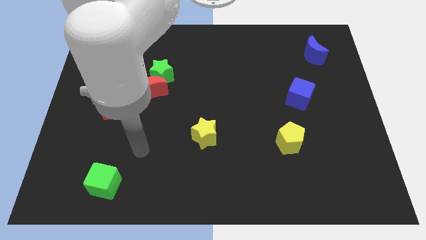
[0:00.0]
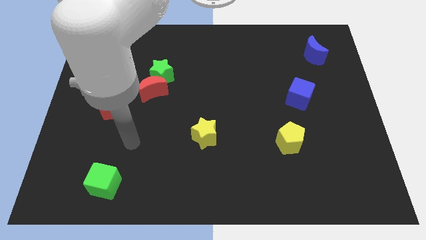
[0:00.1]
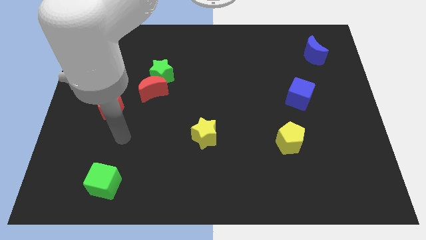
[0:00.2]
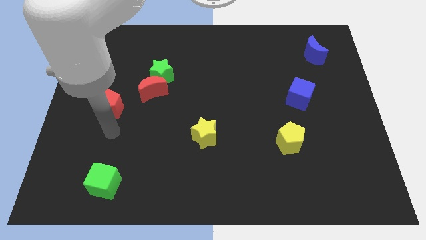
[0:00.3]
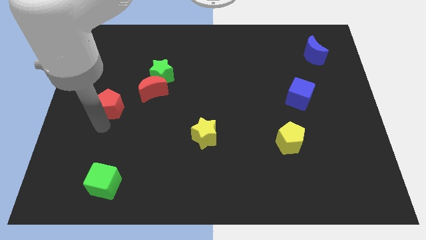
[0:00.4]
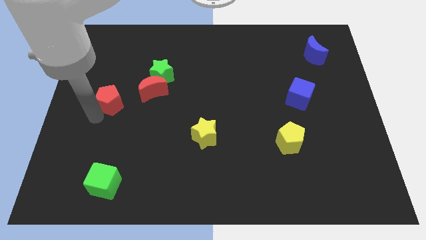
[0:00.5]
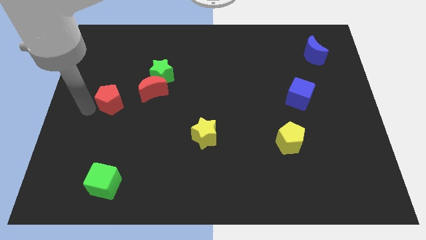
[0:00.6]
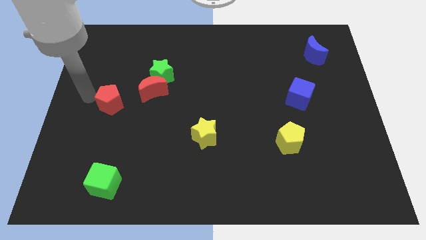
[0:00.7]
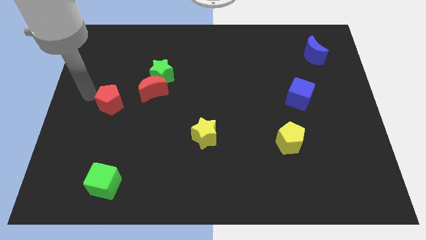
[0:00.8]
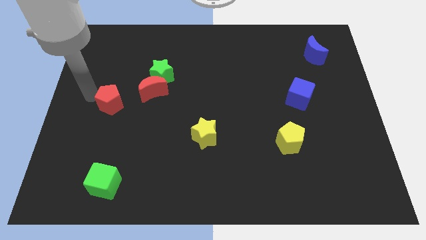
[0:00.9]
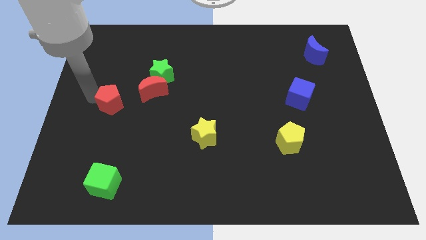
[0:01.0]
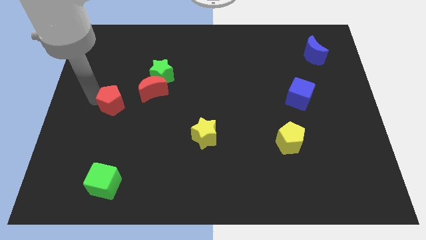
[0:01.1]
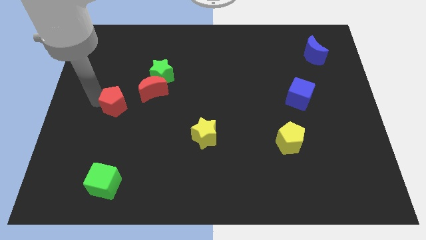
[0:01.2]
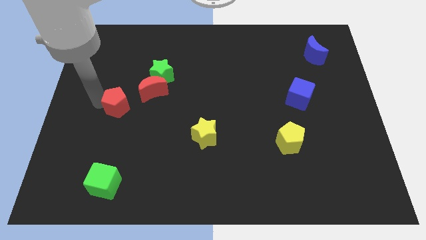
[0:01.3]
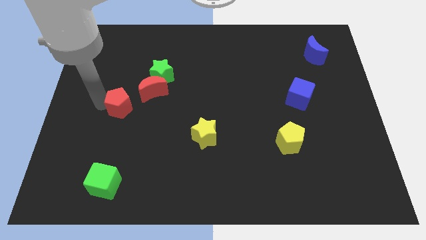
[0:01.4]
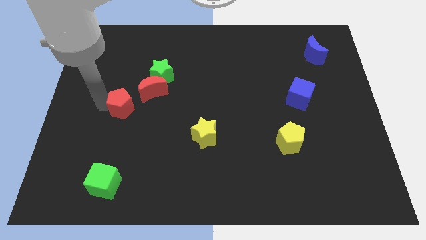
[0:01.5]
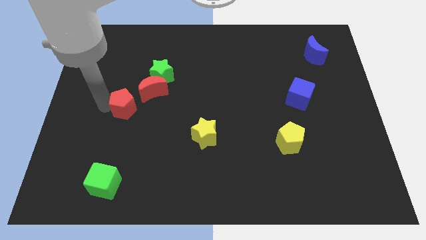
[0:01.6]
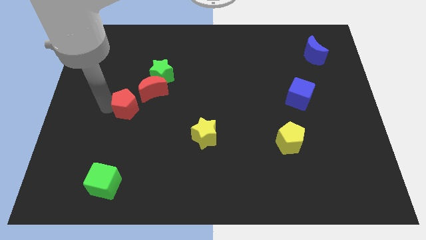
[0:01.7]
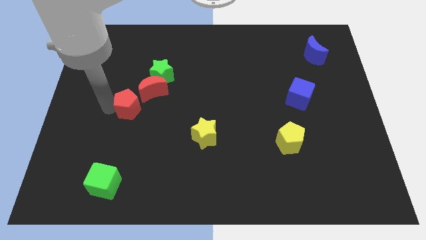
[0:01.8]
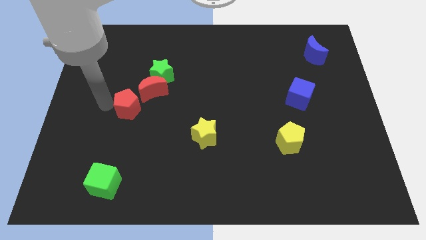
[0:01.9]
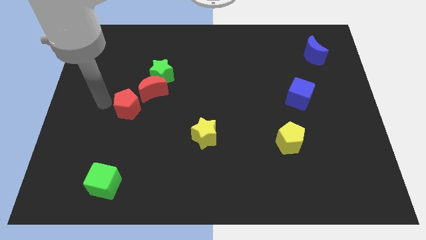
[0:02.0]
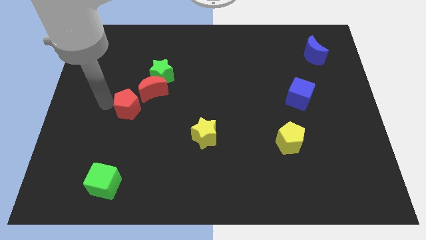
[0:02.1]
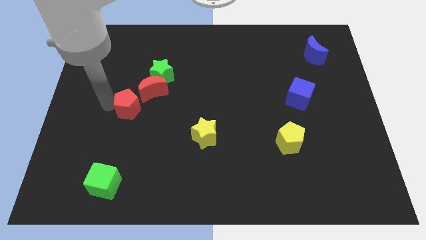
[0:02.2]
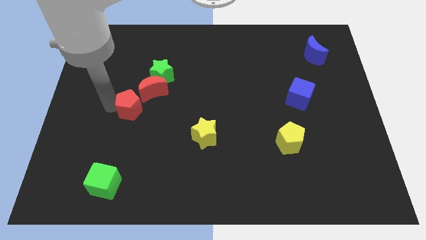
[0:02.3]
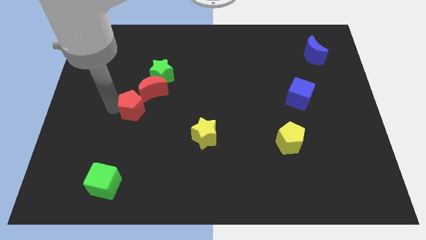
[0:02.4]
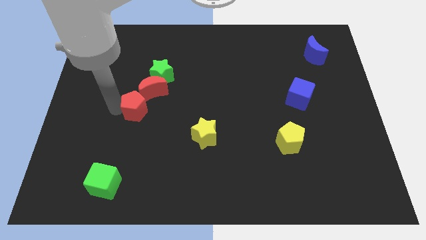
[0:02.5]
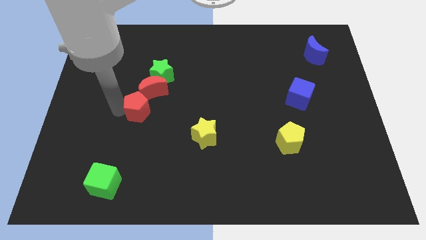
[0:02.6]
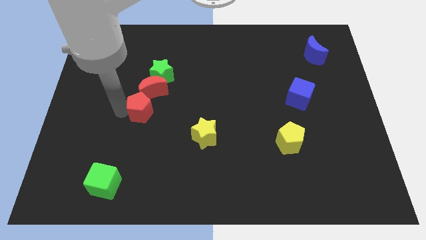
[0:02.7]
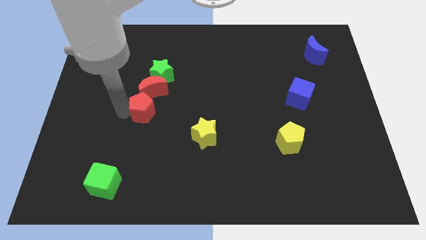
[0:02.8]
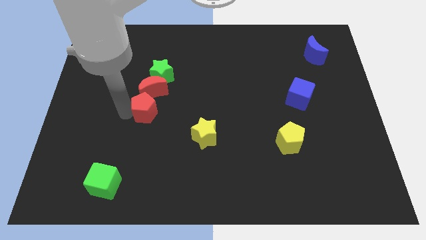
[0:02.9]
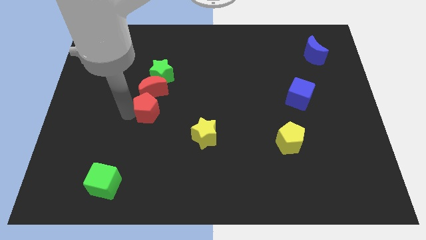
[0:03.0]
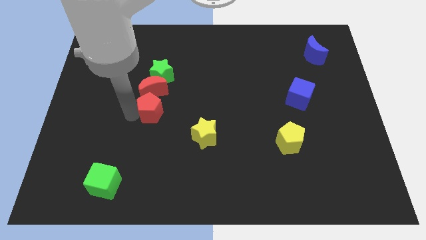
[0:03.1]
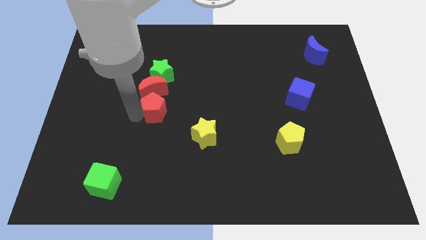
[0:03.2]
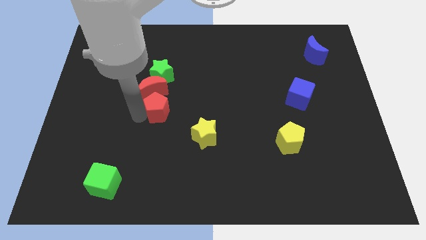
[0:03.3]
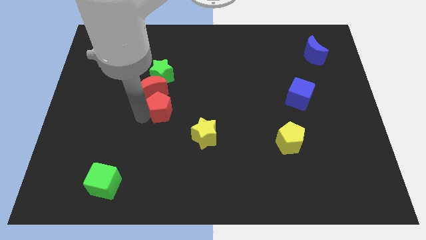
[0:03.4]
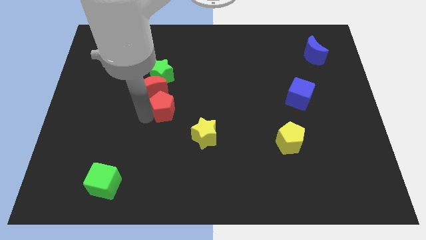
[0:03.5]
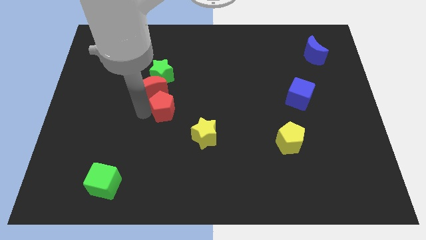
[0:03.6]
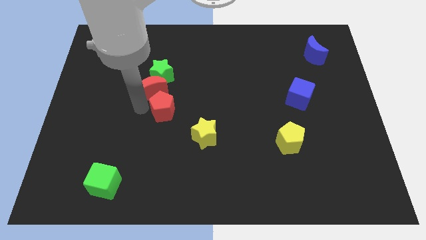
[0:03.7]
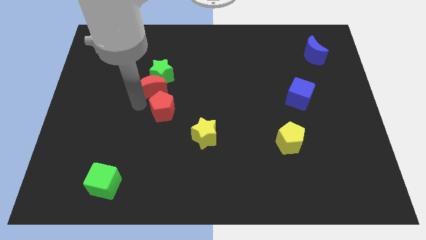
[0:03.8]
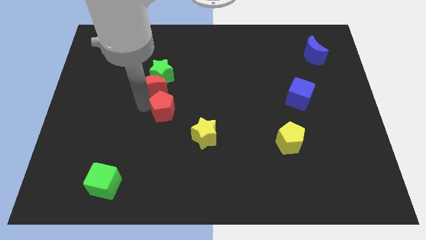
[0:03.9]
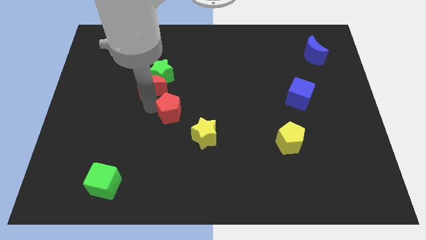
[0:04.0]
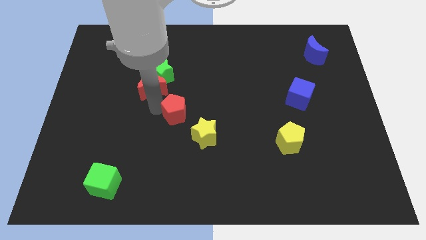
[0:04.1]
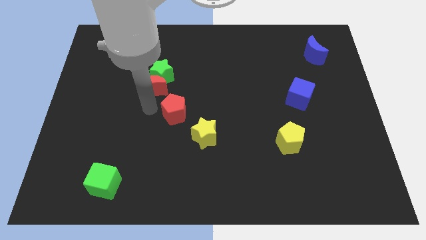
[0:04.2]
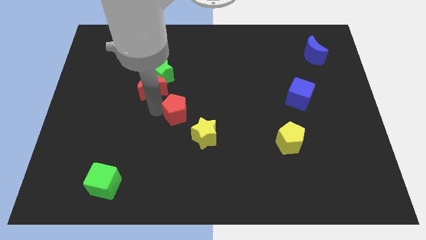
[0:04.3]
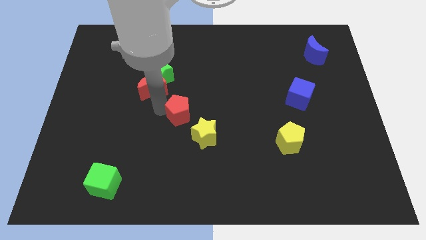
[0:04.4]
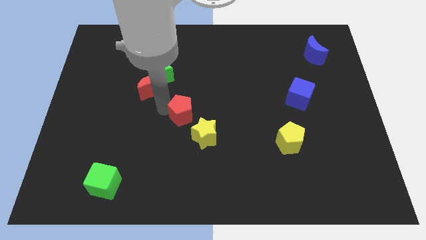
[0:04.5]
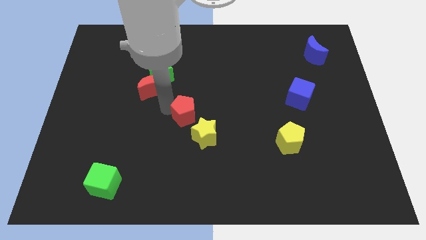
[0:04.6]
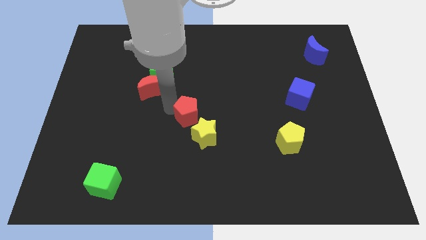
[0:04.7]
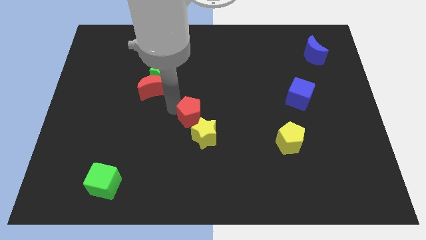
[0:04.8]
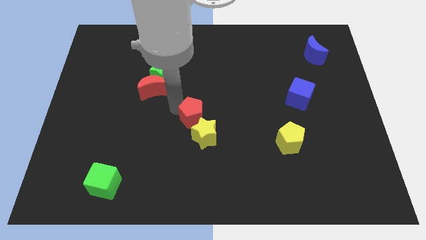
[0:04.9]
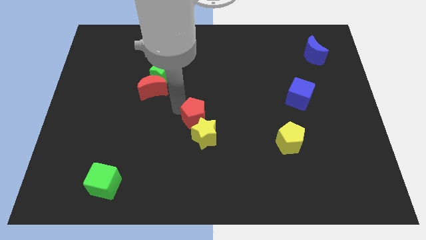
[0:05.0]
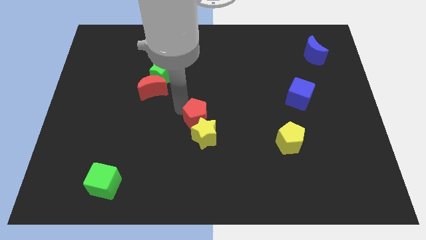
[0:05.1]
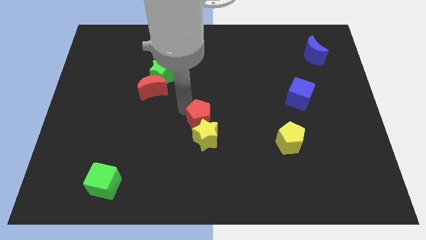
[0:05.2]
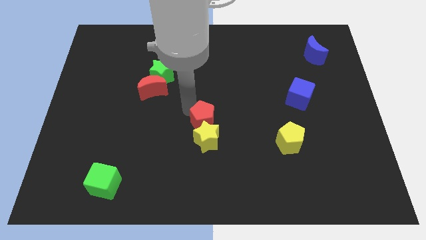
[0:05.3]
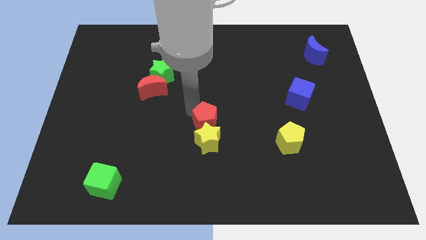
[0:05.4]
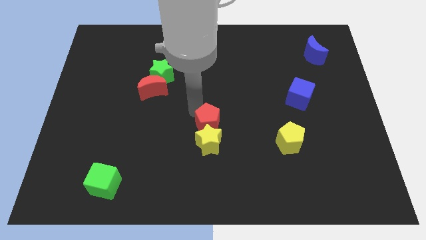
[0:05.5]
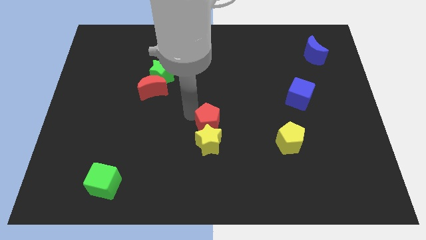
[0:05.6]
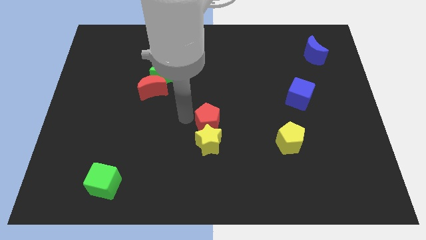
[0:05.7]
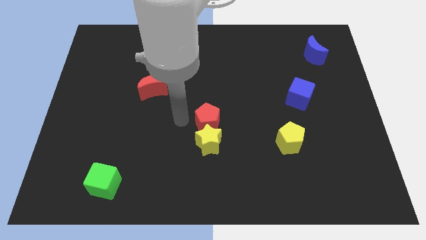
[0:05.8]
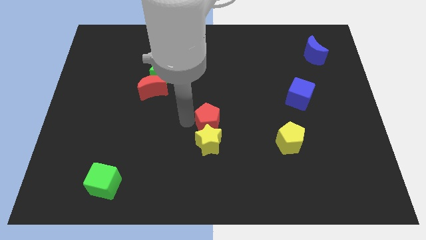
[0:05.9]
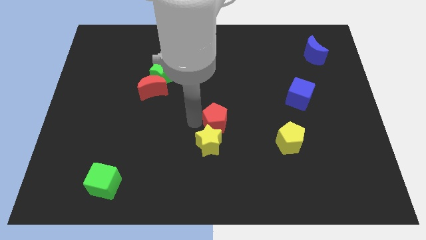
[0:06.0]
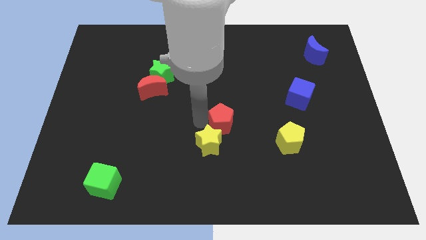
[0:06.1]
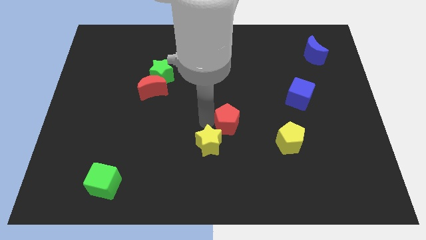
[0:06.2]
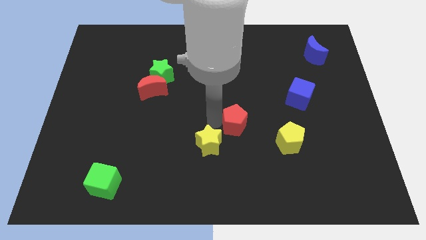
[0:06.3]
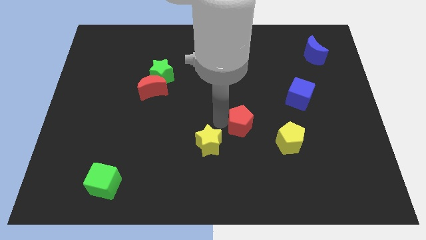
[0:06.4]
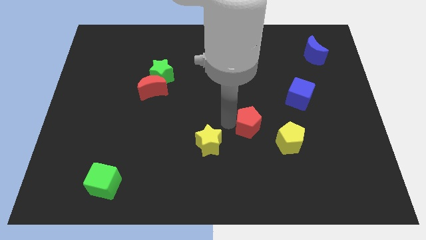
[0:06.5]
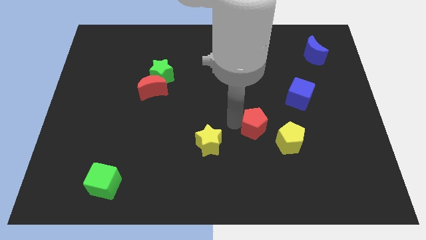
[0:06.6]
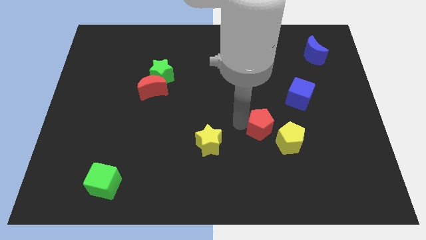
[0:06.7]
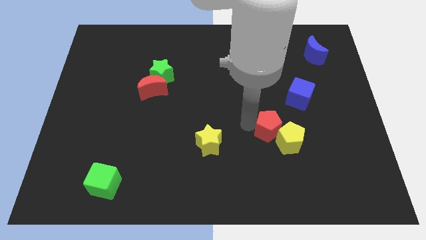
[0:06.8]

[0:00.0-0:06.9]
slide the red pentagon towards the yellow pentagon
